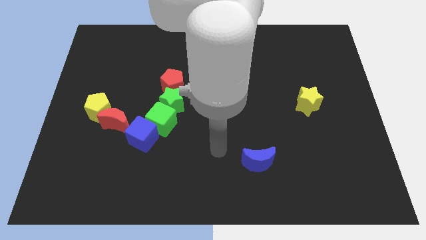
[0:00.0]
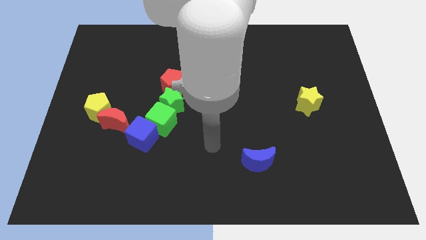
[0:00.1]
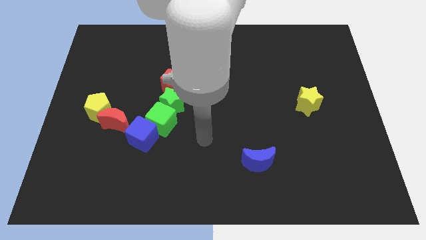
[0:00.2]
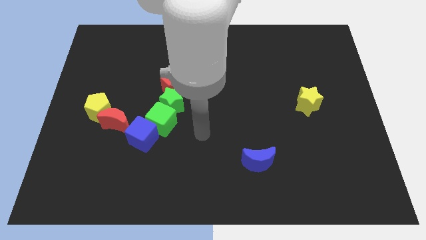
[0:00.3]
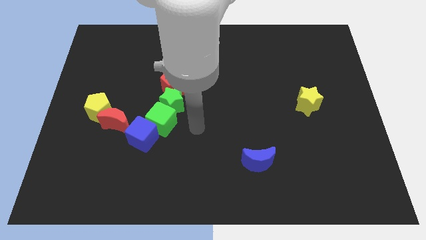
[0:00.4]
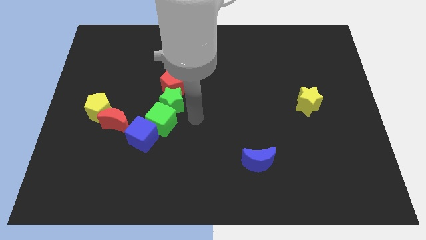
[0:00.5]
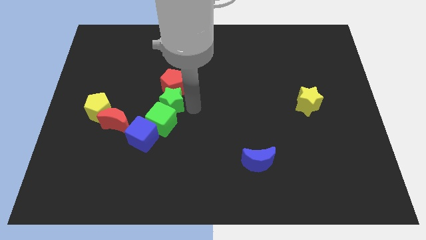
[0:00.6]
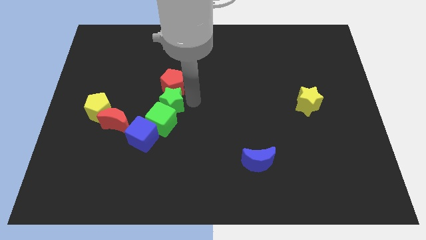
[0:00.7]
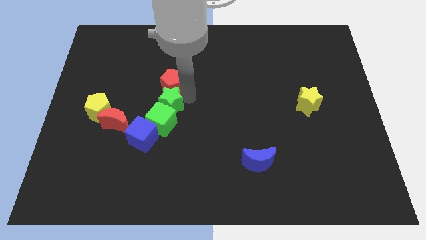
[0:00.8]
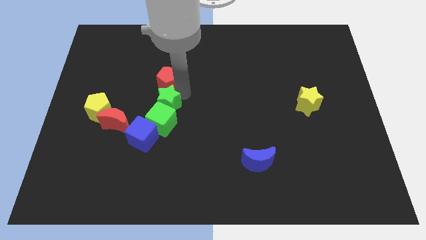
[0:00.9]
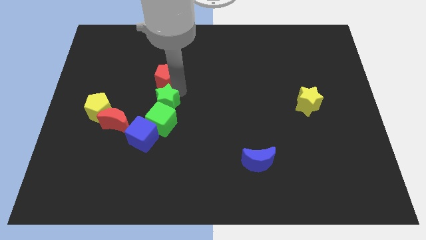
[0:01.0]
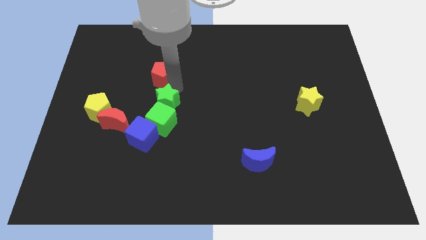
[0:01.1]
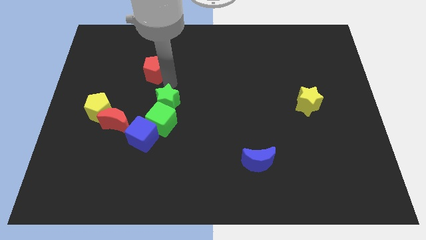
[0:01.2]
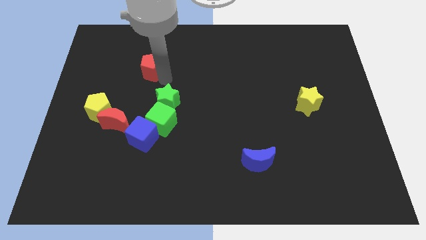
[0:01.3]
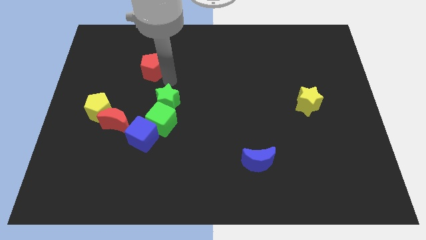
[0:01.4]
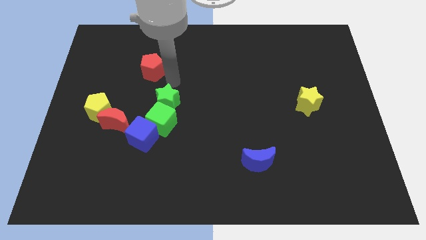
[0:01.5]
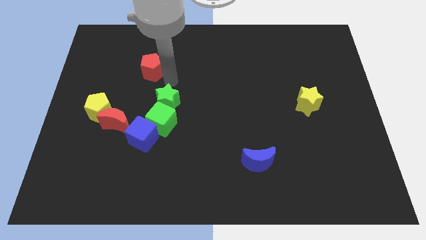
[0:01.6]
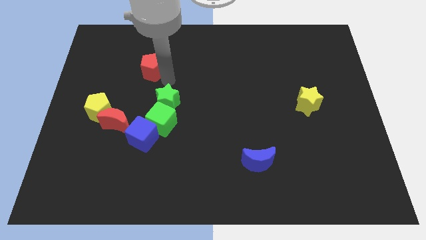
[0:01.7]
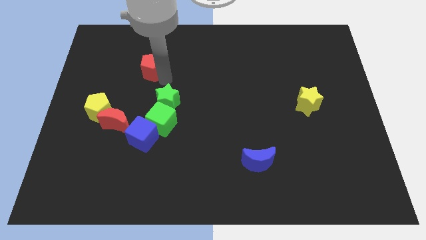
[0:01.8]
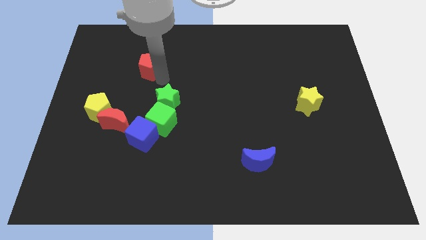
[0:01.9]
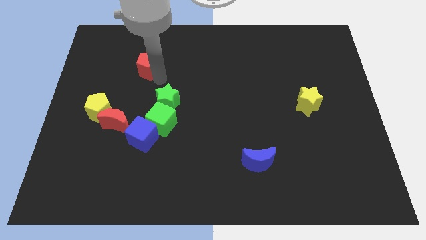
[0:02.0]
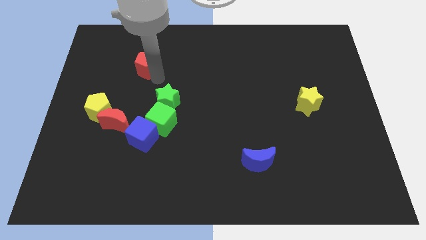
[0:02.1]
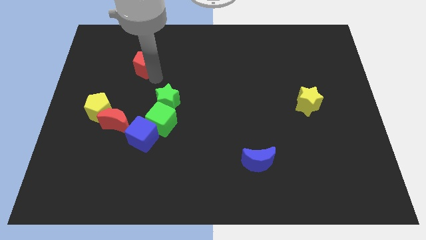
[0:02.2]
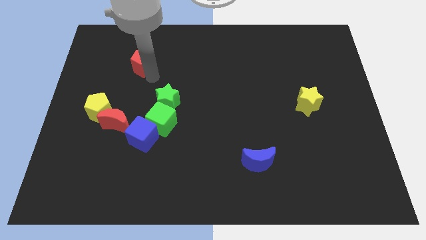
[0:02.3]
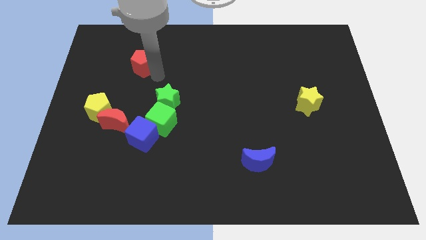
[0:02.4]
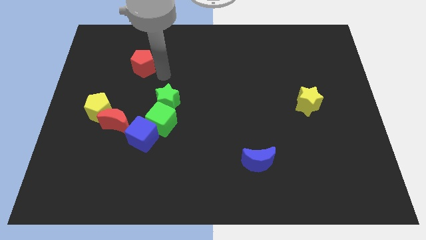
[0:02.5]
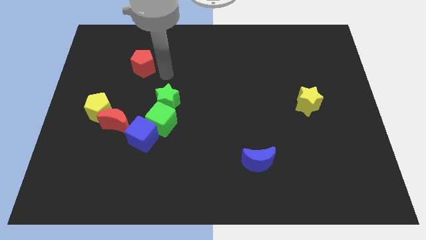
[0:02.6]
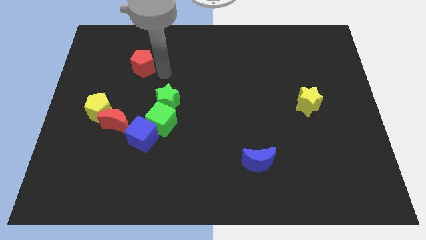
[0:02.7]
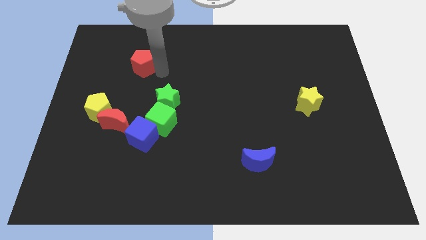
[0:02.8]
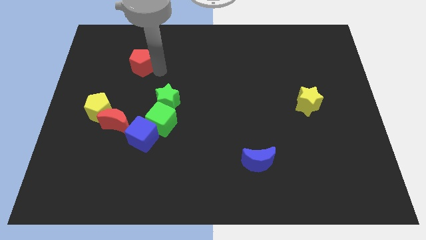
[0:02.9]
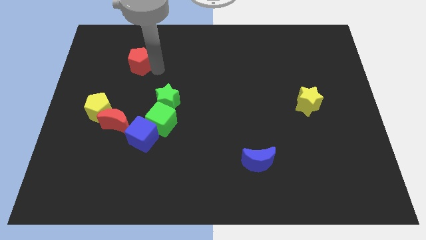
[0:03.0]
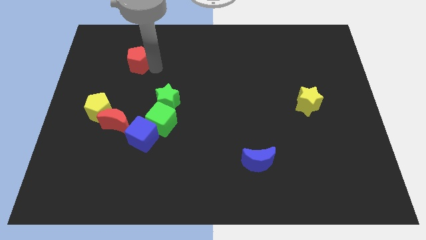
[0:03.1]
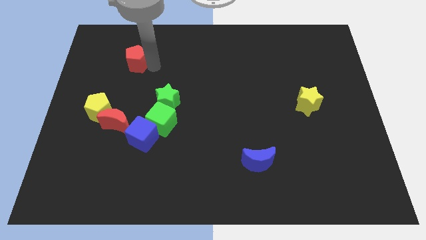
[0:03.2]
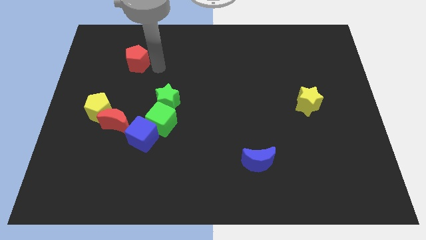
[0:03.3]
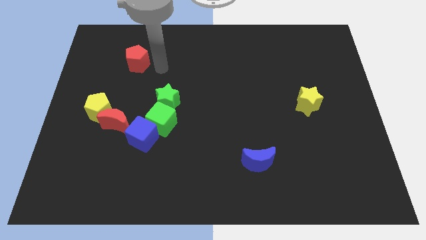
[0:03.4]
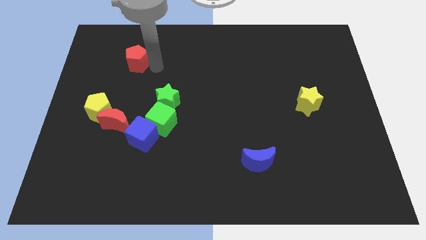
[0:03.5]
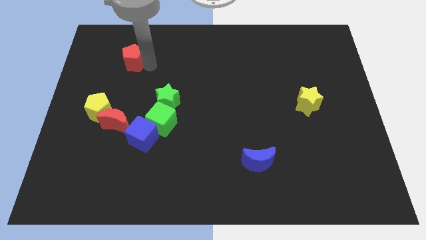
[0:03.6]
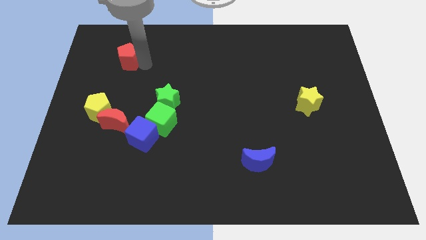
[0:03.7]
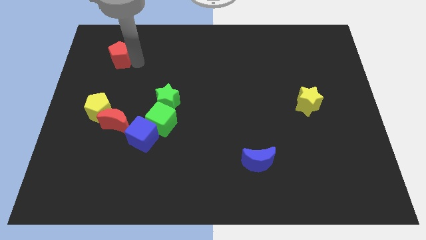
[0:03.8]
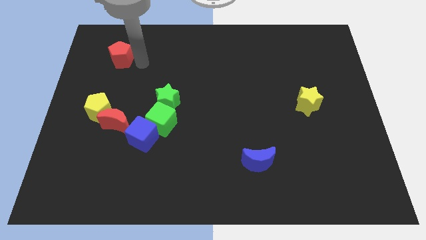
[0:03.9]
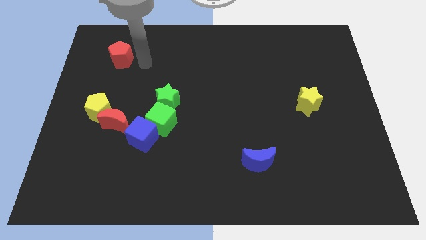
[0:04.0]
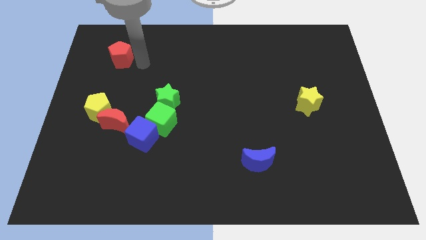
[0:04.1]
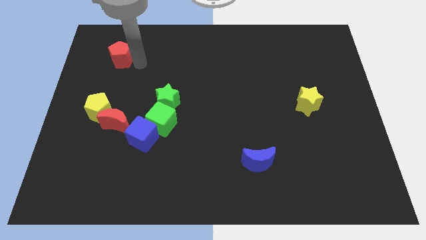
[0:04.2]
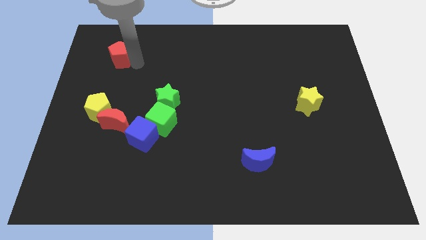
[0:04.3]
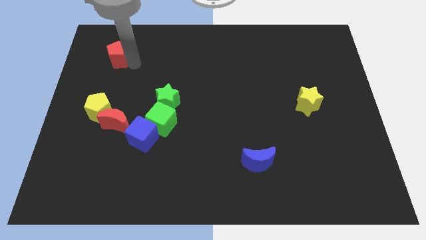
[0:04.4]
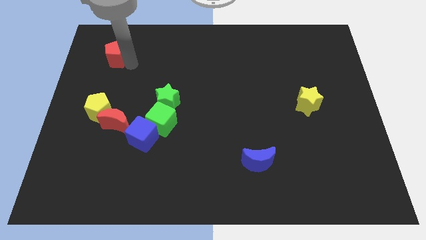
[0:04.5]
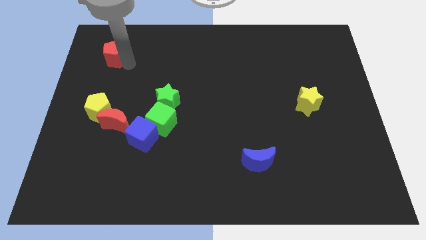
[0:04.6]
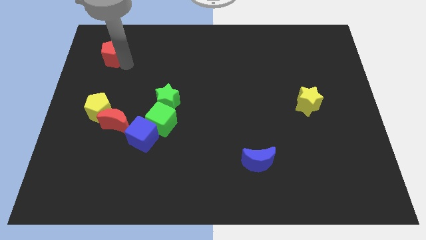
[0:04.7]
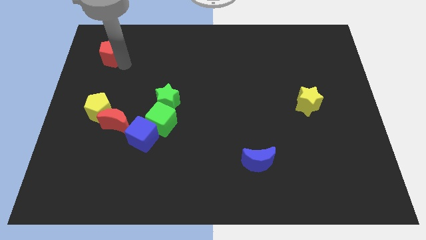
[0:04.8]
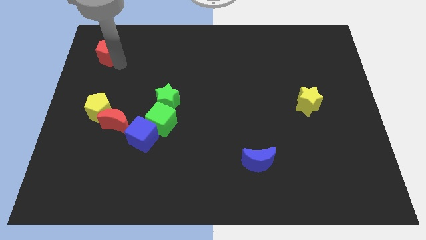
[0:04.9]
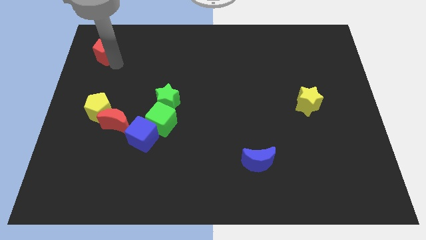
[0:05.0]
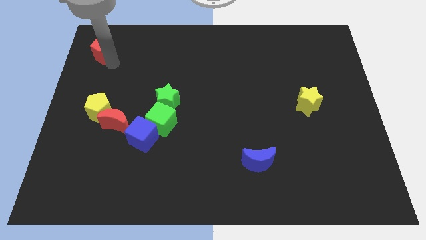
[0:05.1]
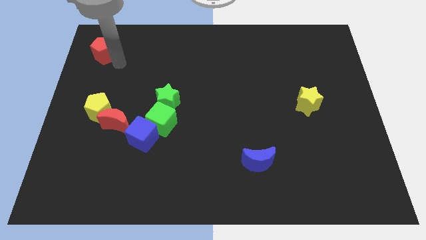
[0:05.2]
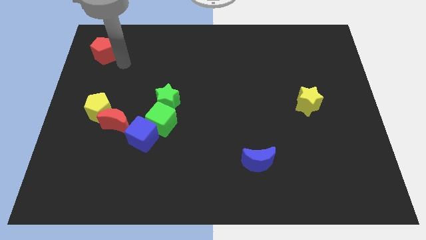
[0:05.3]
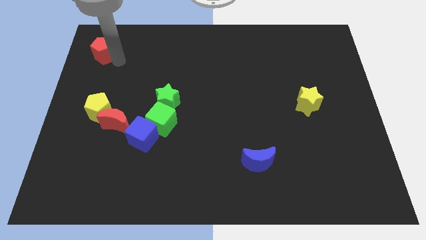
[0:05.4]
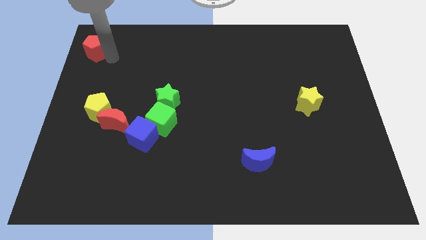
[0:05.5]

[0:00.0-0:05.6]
move the red pentagon to the upper left corner
